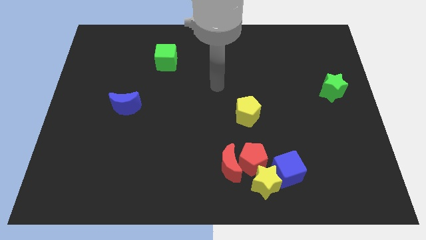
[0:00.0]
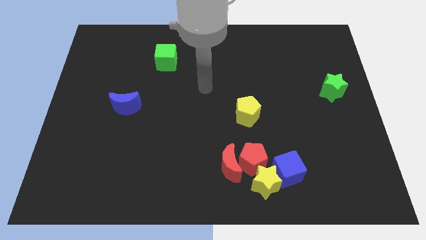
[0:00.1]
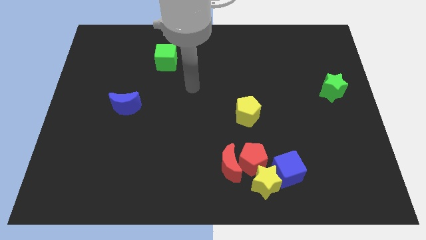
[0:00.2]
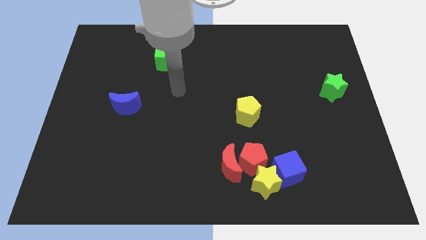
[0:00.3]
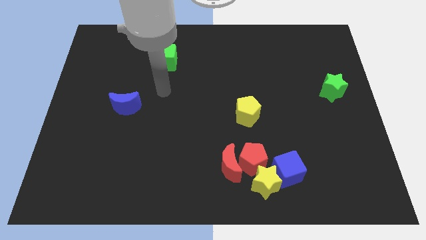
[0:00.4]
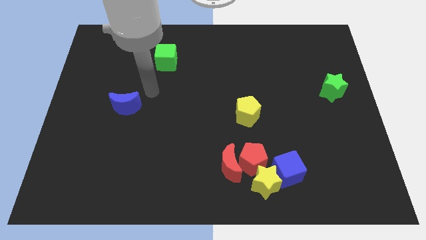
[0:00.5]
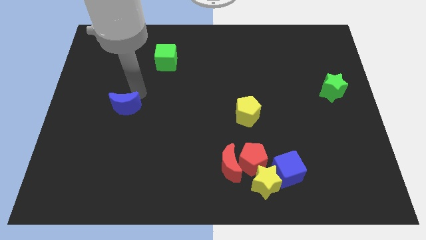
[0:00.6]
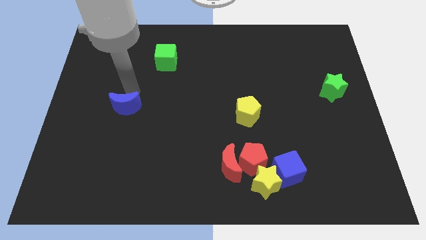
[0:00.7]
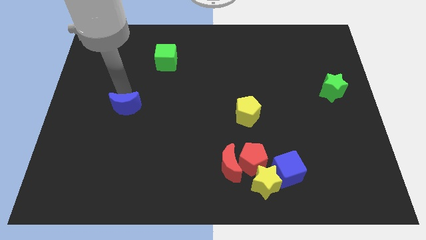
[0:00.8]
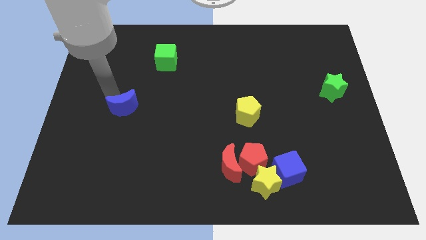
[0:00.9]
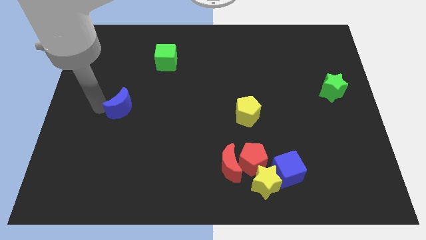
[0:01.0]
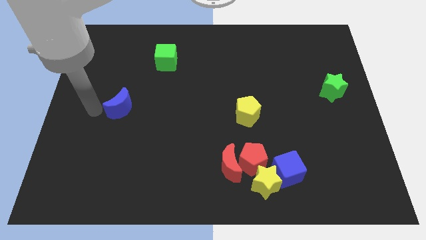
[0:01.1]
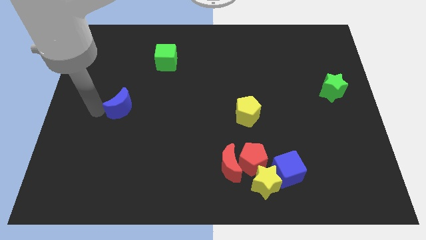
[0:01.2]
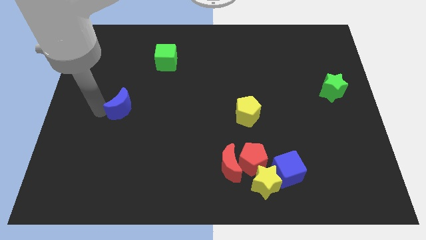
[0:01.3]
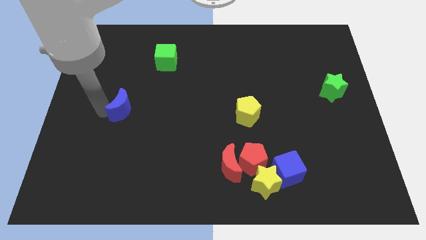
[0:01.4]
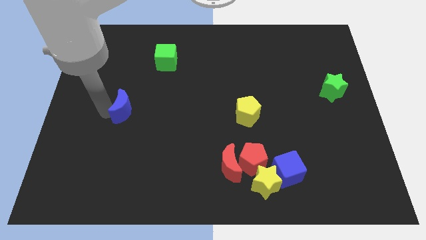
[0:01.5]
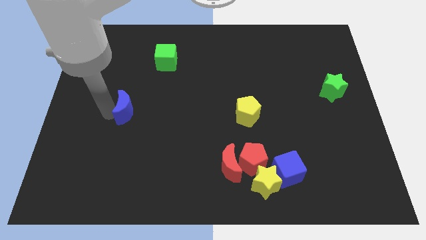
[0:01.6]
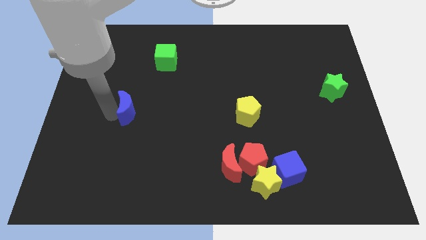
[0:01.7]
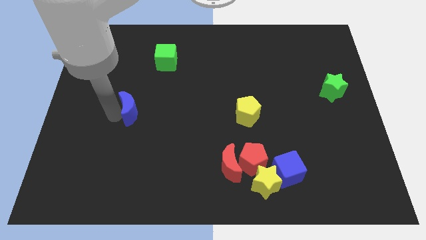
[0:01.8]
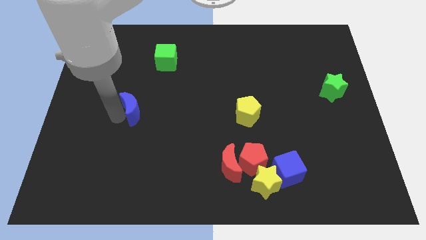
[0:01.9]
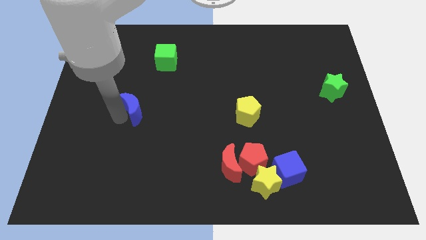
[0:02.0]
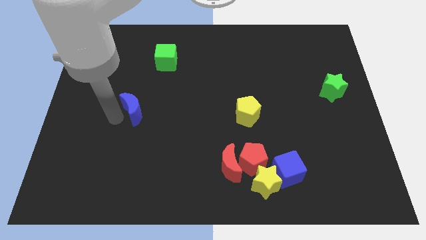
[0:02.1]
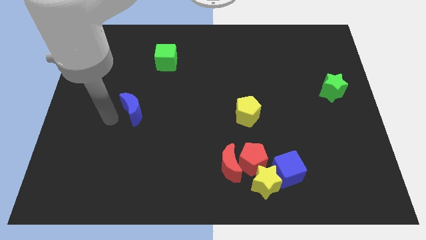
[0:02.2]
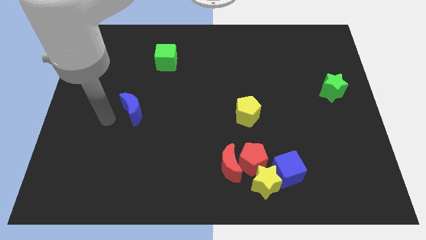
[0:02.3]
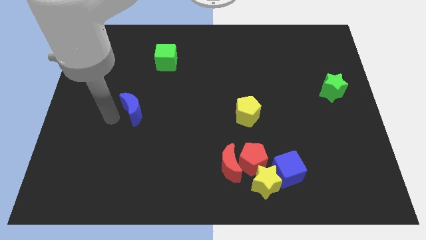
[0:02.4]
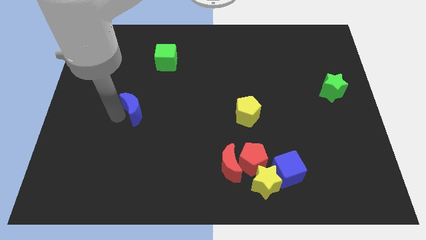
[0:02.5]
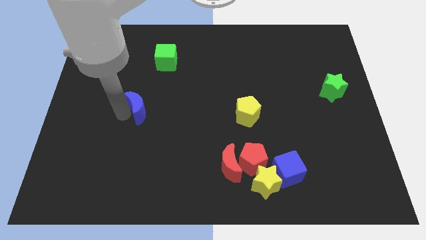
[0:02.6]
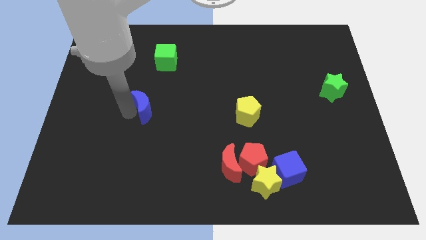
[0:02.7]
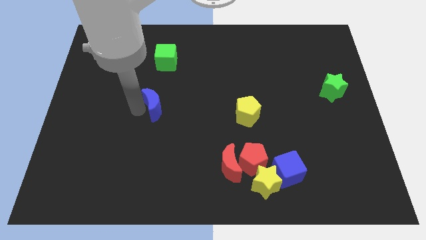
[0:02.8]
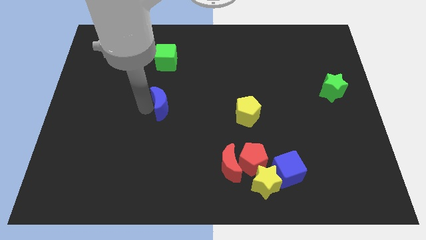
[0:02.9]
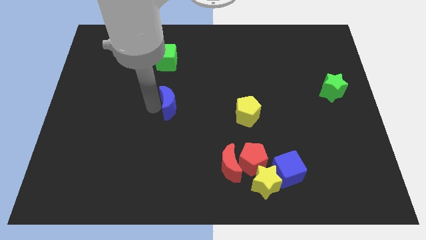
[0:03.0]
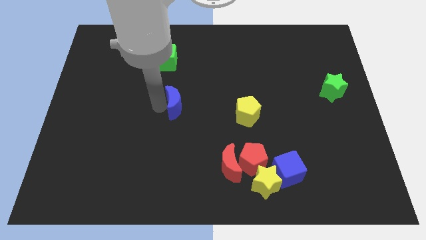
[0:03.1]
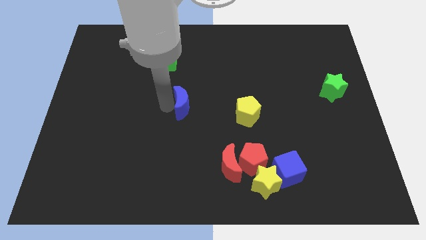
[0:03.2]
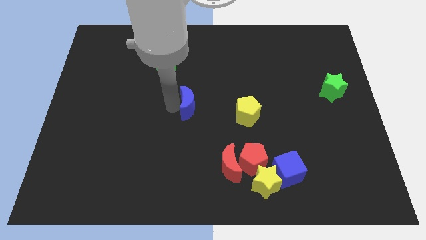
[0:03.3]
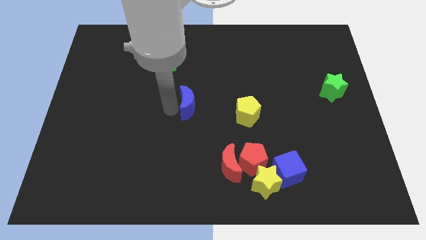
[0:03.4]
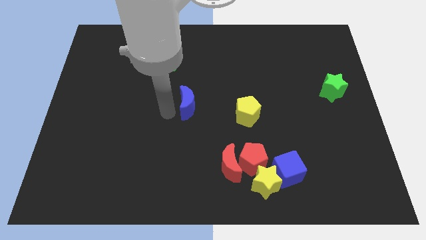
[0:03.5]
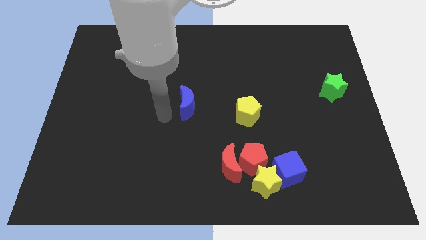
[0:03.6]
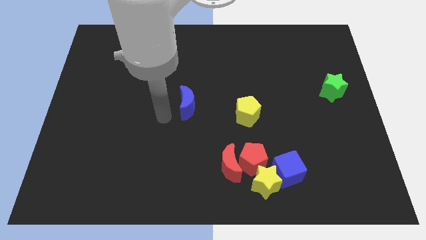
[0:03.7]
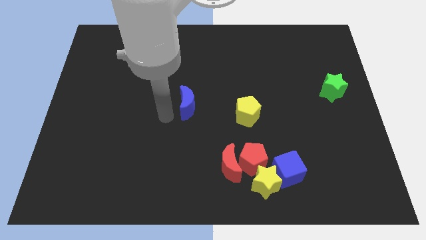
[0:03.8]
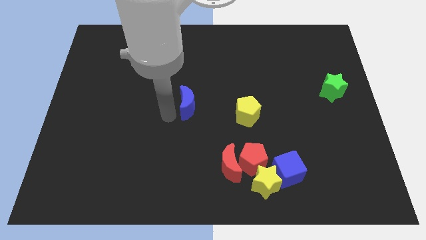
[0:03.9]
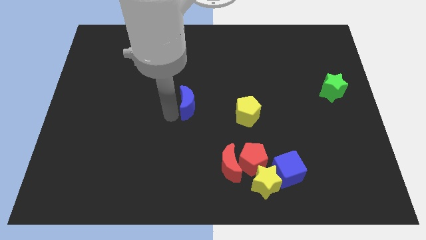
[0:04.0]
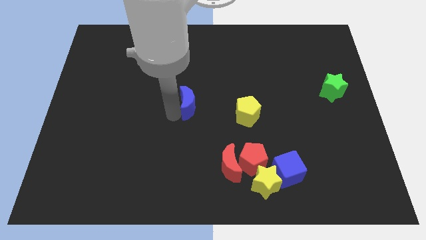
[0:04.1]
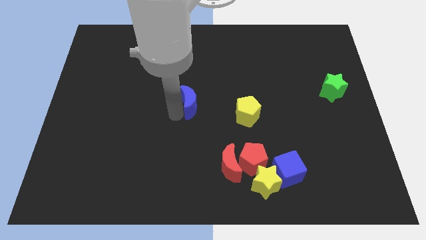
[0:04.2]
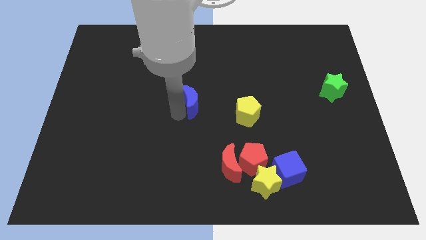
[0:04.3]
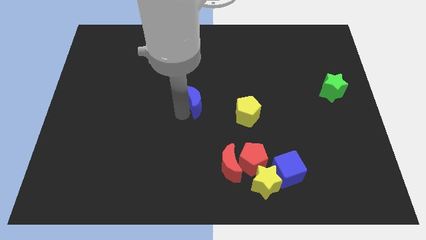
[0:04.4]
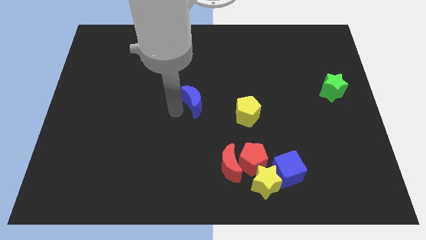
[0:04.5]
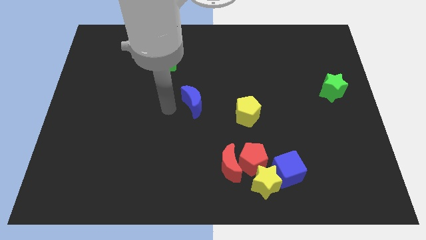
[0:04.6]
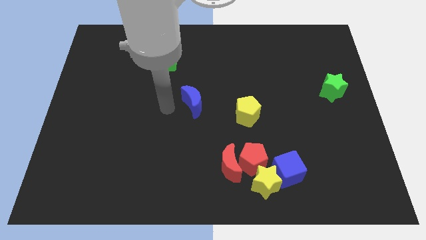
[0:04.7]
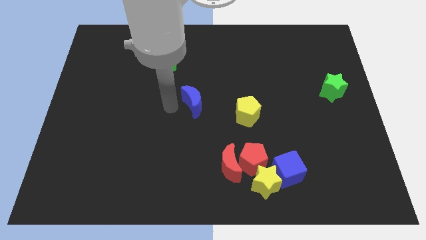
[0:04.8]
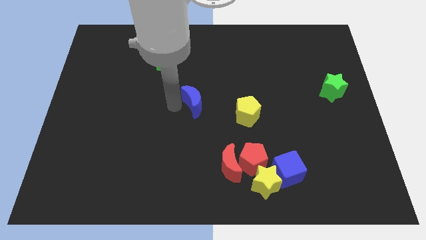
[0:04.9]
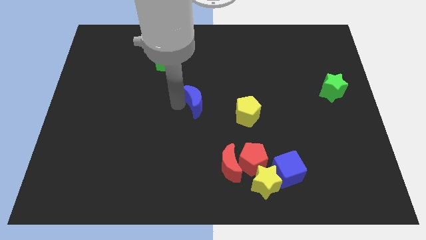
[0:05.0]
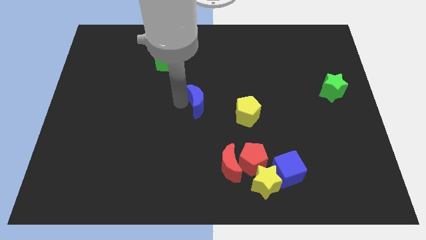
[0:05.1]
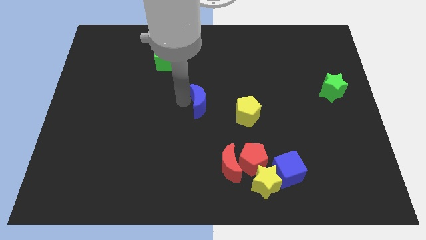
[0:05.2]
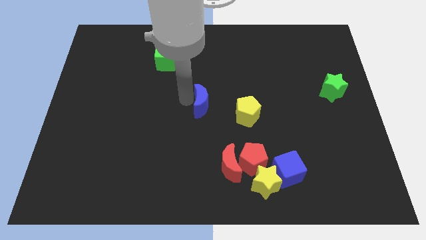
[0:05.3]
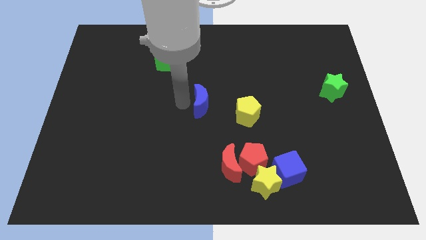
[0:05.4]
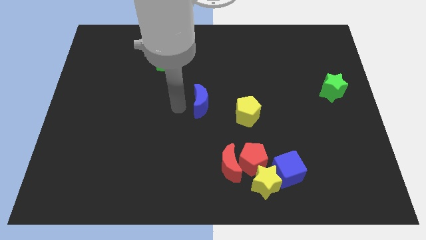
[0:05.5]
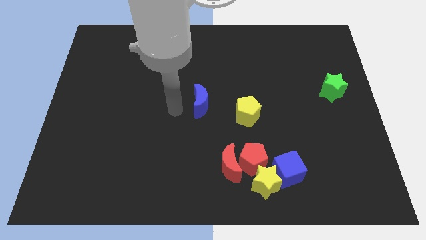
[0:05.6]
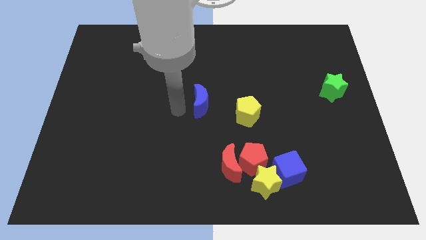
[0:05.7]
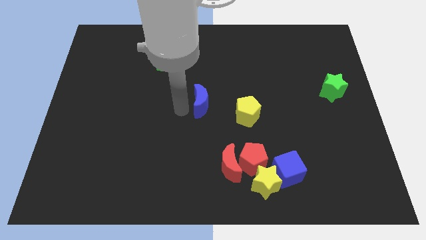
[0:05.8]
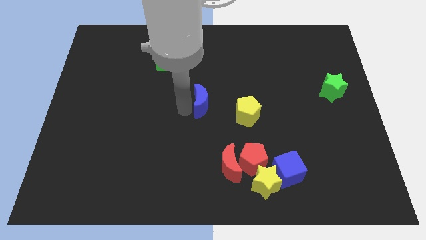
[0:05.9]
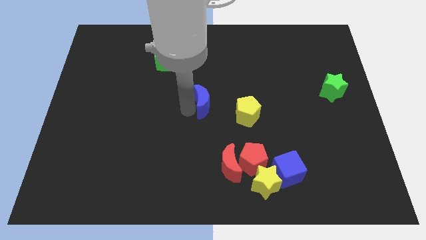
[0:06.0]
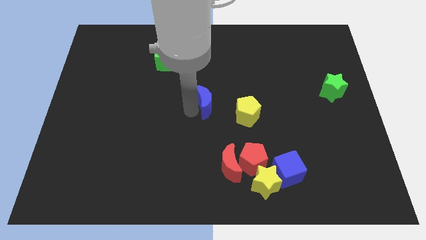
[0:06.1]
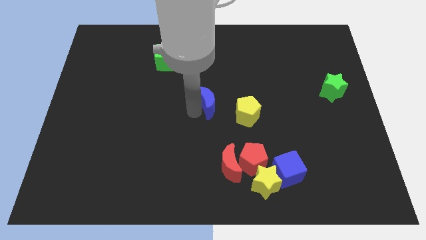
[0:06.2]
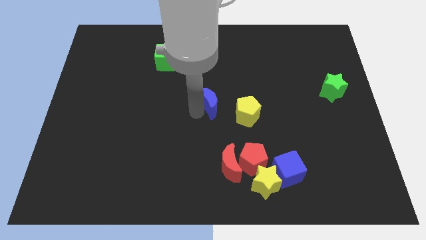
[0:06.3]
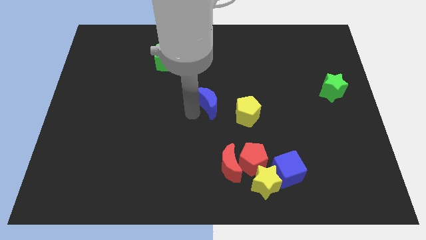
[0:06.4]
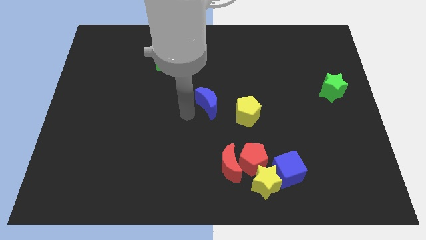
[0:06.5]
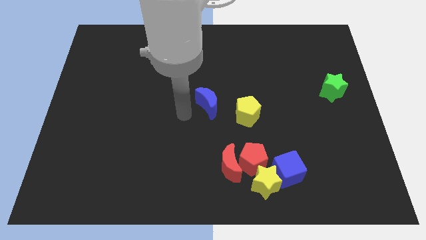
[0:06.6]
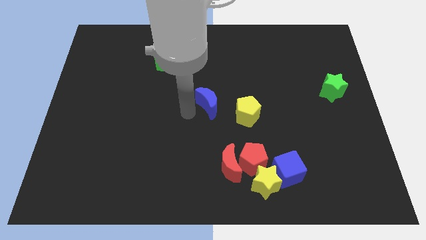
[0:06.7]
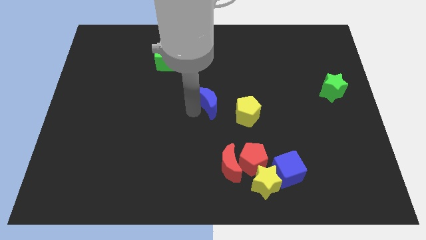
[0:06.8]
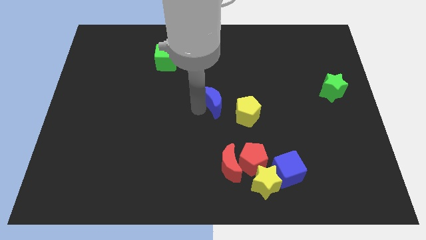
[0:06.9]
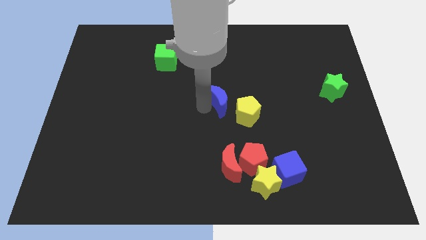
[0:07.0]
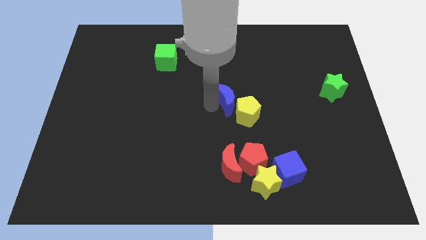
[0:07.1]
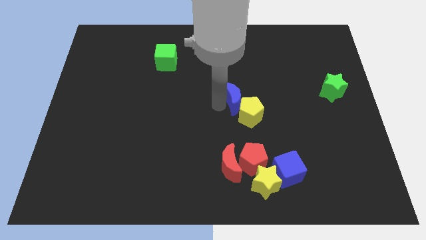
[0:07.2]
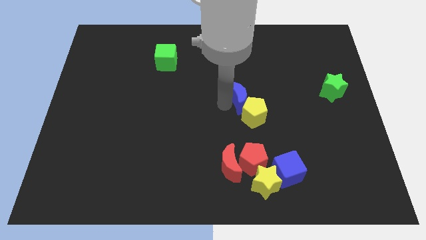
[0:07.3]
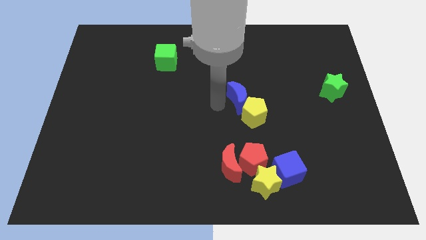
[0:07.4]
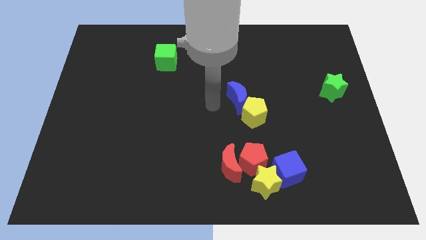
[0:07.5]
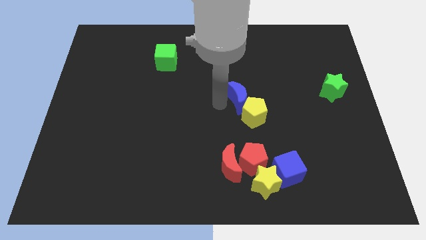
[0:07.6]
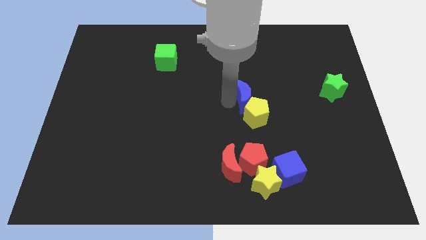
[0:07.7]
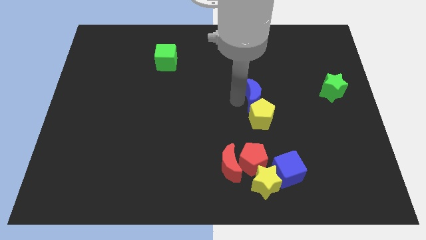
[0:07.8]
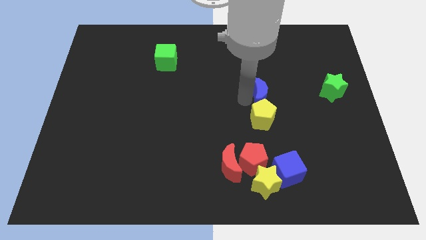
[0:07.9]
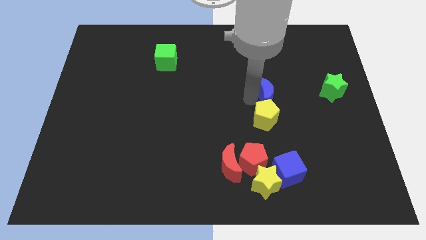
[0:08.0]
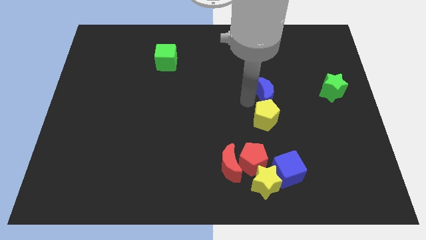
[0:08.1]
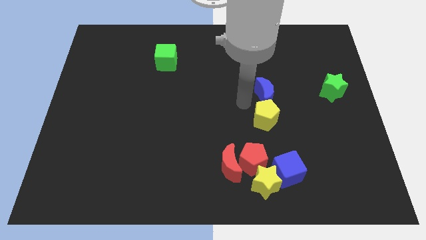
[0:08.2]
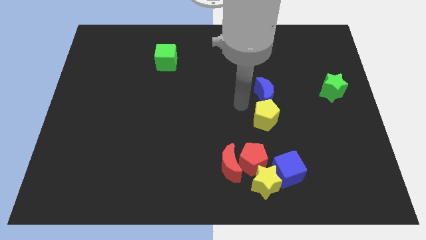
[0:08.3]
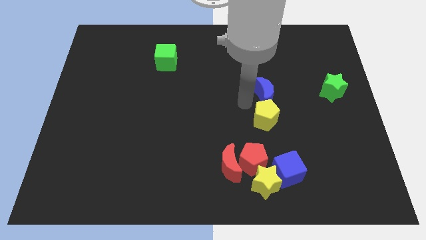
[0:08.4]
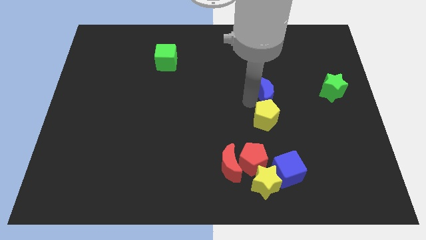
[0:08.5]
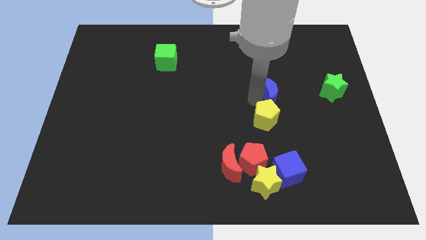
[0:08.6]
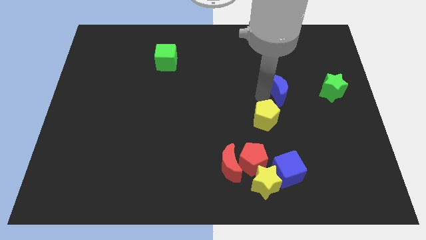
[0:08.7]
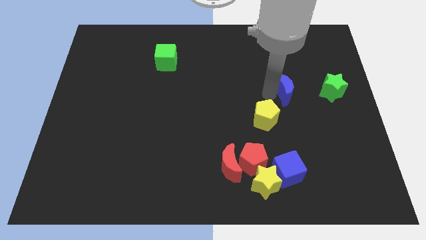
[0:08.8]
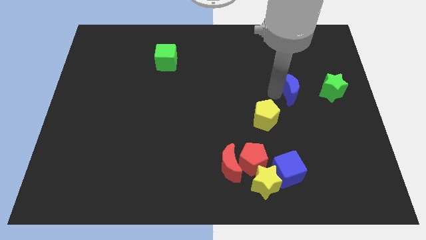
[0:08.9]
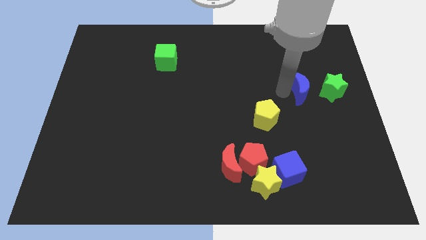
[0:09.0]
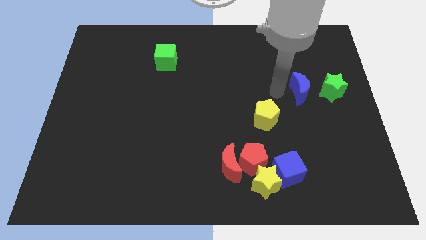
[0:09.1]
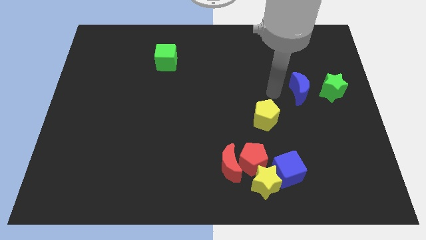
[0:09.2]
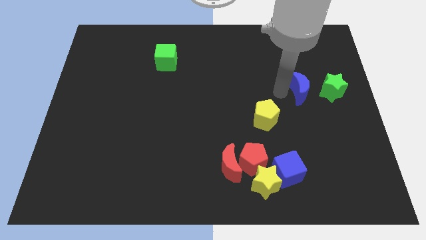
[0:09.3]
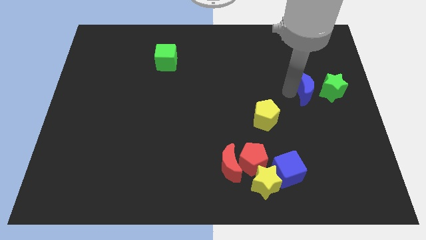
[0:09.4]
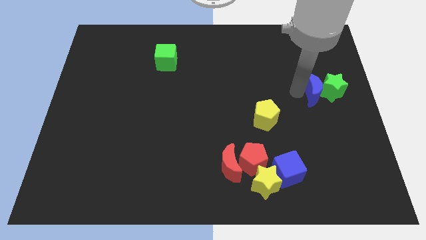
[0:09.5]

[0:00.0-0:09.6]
push the blue moon close to the green star
